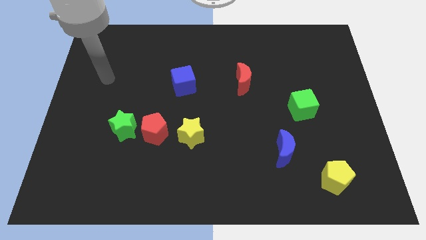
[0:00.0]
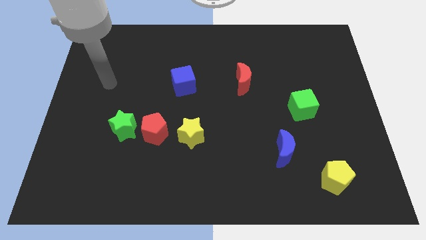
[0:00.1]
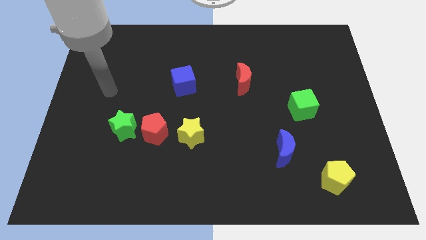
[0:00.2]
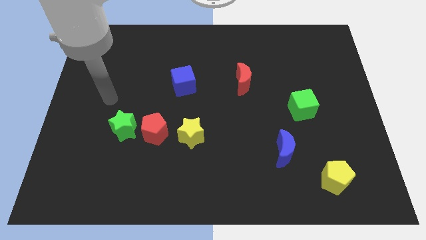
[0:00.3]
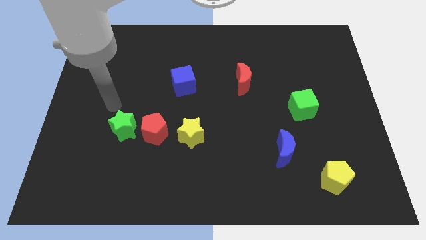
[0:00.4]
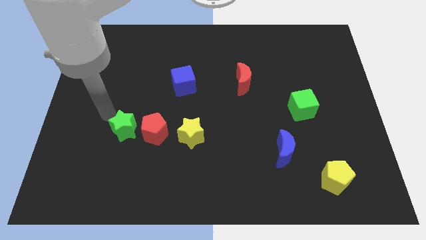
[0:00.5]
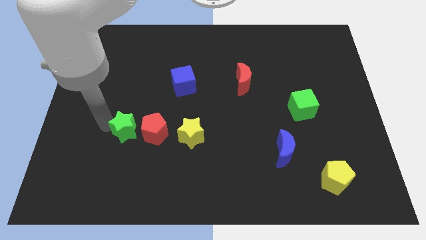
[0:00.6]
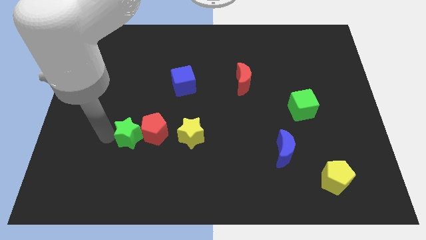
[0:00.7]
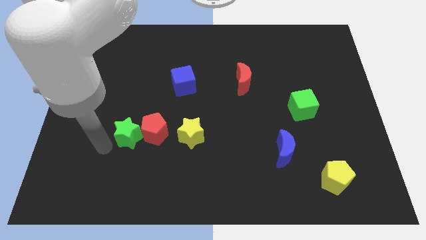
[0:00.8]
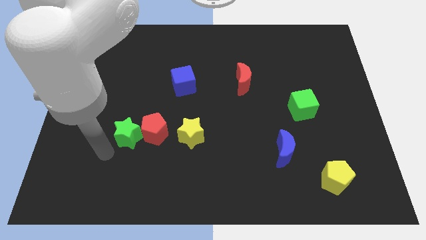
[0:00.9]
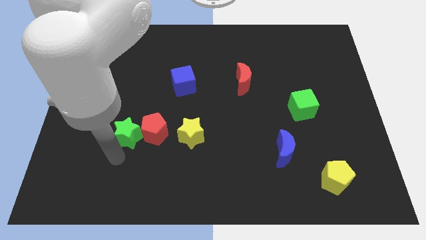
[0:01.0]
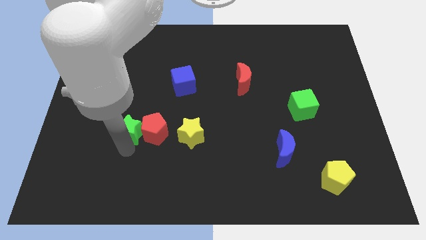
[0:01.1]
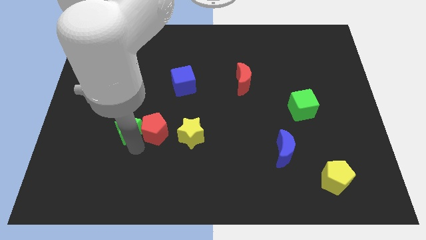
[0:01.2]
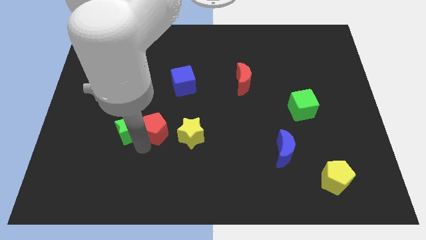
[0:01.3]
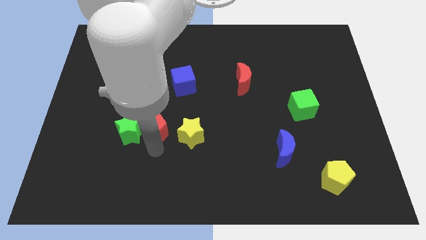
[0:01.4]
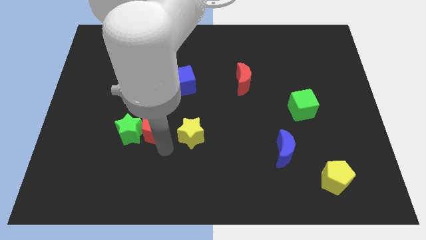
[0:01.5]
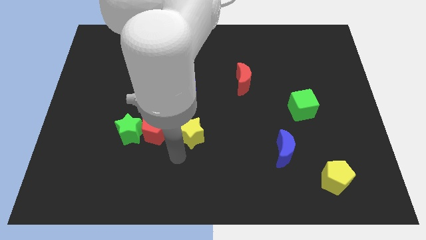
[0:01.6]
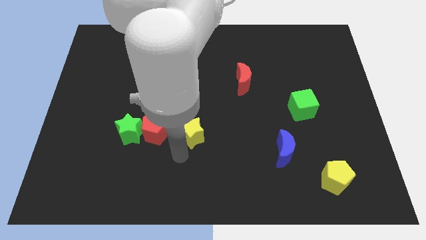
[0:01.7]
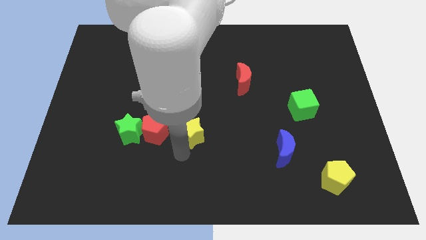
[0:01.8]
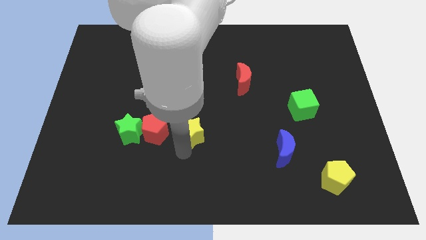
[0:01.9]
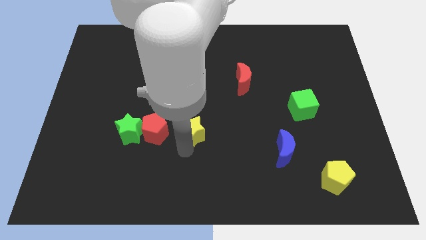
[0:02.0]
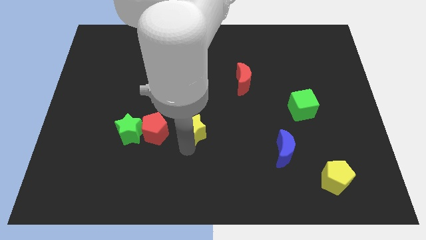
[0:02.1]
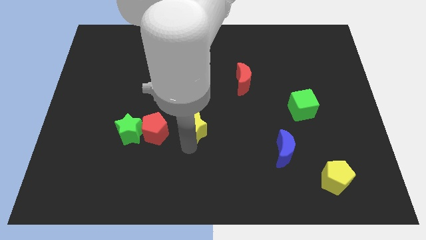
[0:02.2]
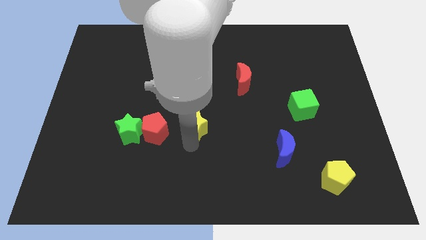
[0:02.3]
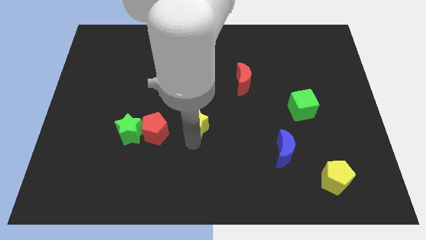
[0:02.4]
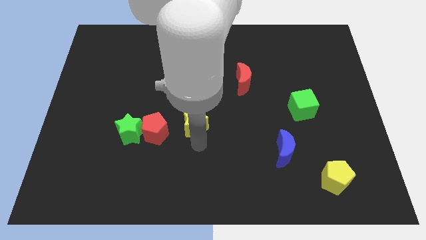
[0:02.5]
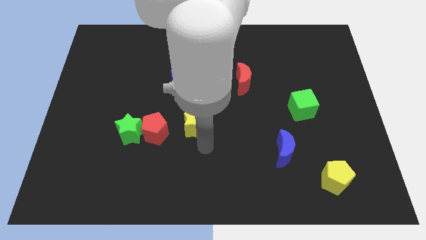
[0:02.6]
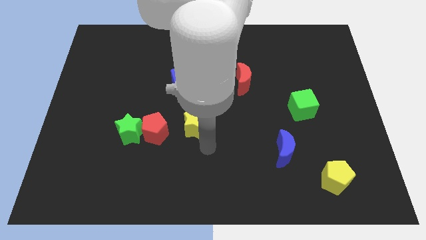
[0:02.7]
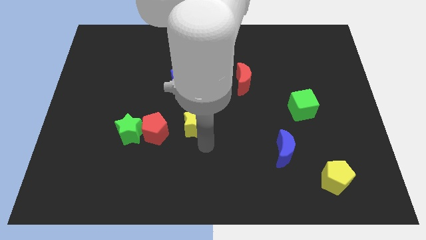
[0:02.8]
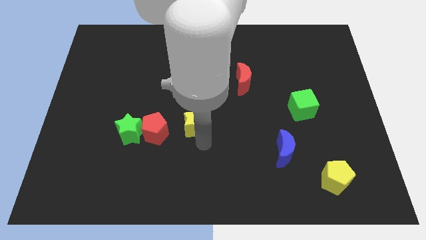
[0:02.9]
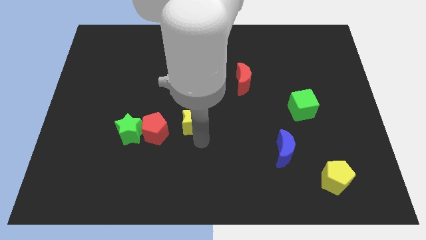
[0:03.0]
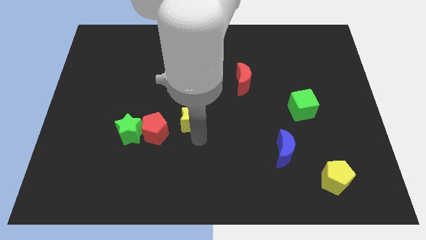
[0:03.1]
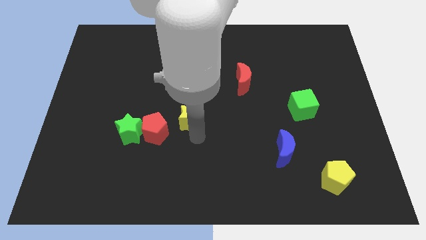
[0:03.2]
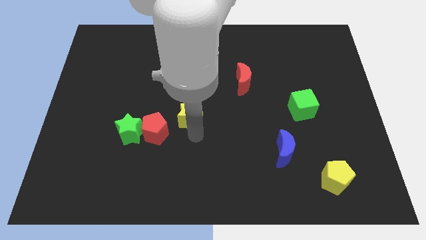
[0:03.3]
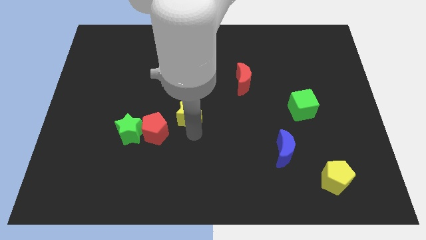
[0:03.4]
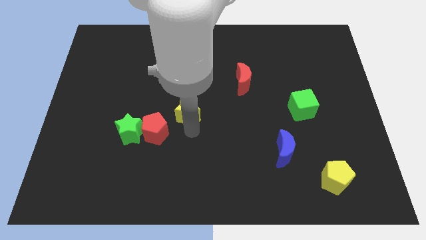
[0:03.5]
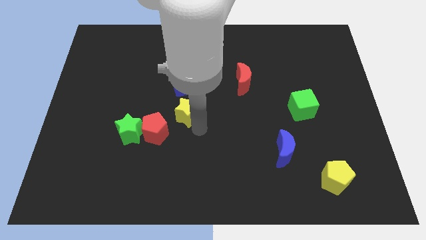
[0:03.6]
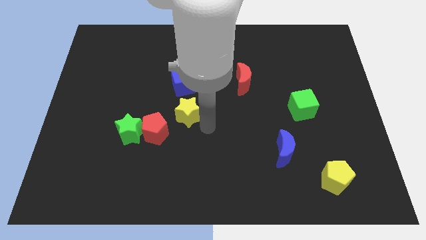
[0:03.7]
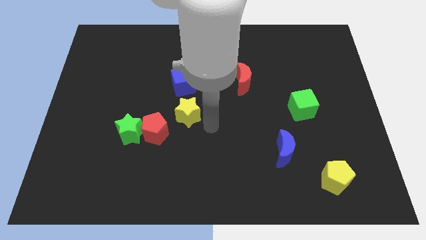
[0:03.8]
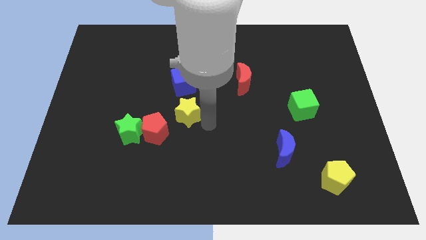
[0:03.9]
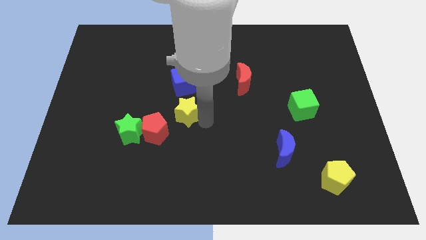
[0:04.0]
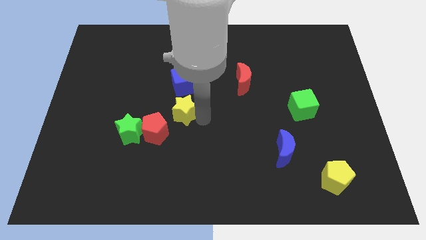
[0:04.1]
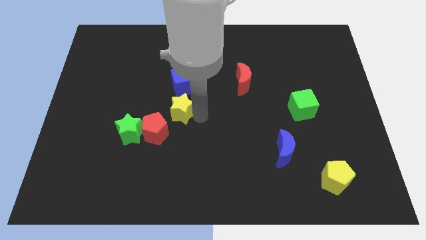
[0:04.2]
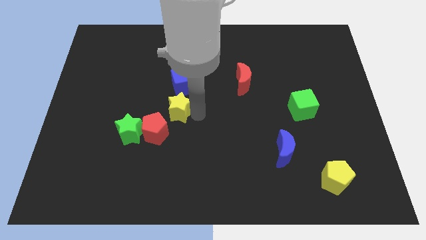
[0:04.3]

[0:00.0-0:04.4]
slide the yellow star up and left somewhat

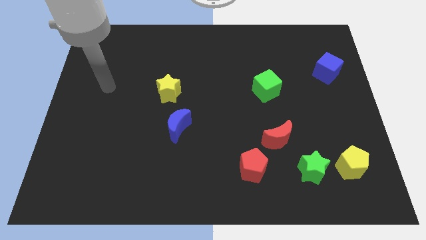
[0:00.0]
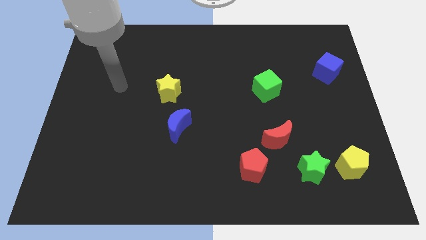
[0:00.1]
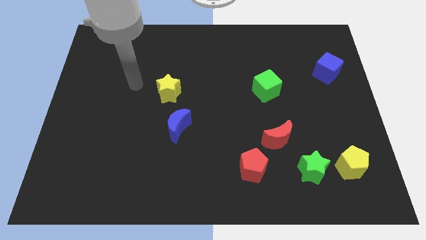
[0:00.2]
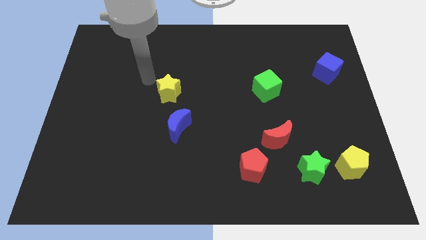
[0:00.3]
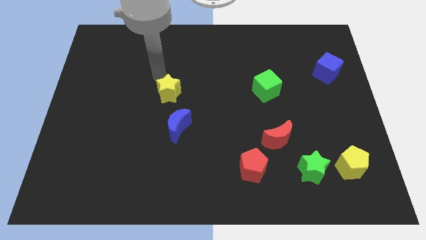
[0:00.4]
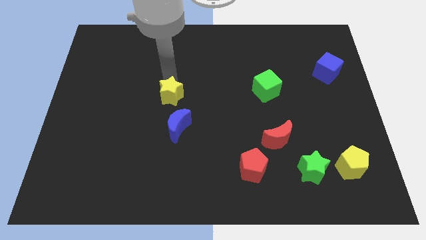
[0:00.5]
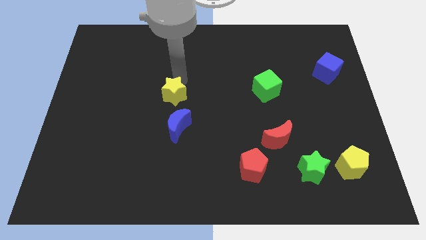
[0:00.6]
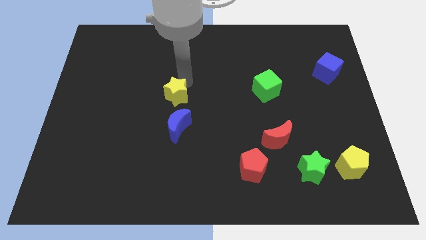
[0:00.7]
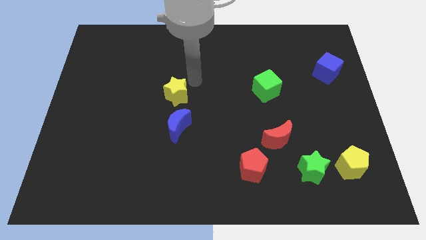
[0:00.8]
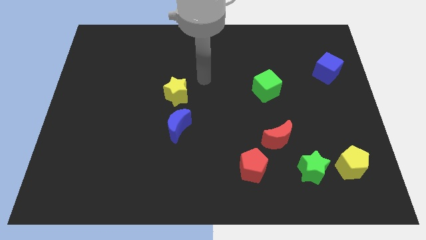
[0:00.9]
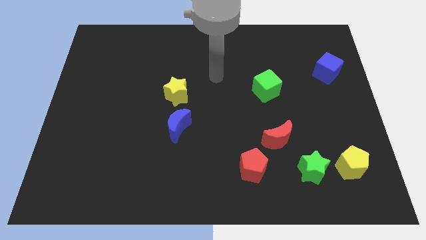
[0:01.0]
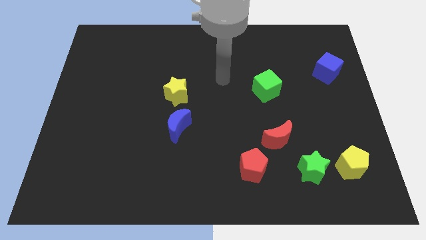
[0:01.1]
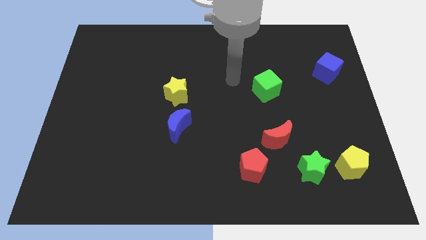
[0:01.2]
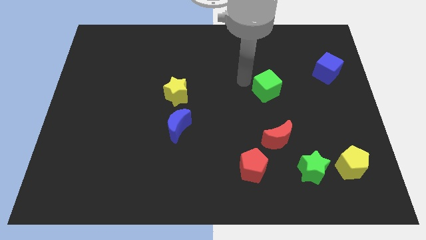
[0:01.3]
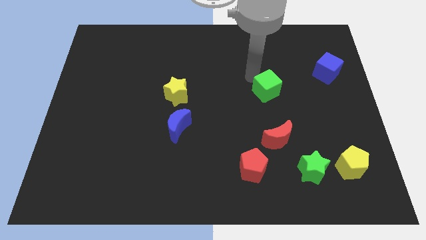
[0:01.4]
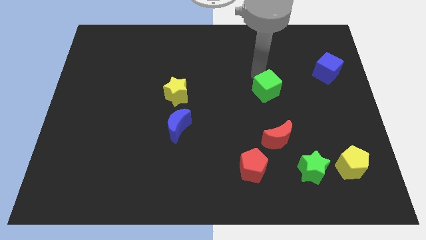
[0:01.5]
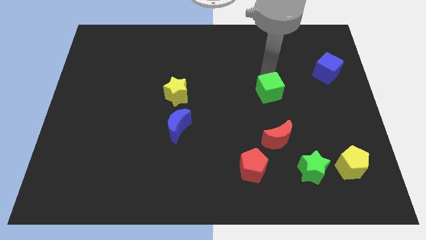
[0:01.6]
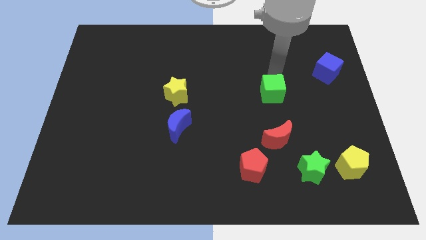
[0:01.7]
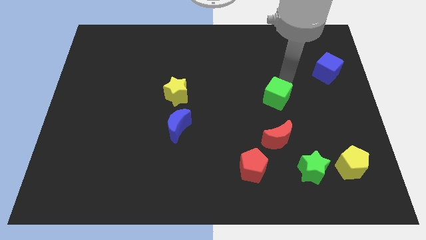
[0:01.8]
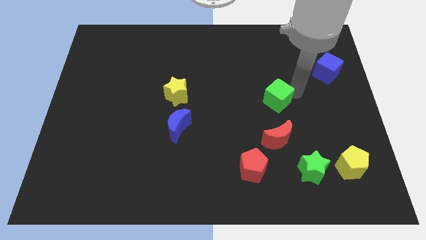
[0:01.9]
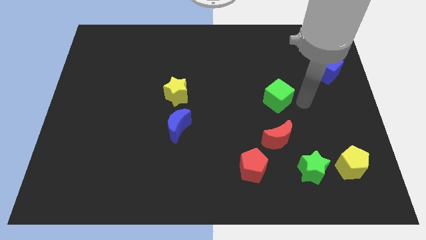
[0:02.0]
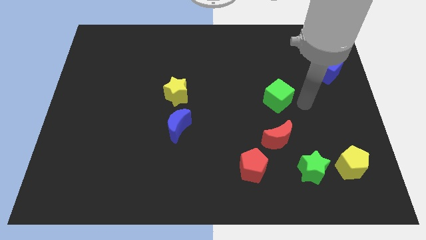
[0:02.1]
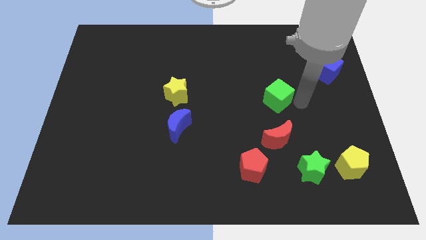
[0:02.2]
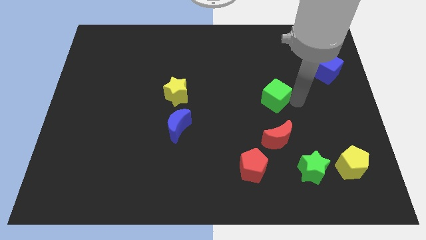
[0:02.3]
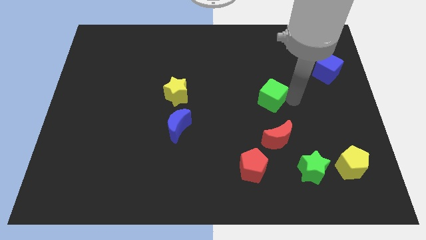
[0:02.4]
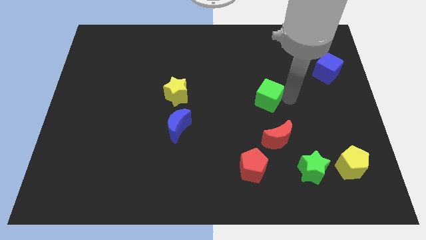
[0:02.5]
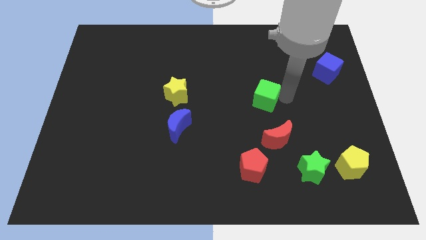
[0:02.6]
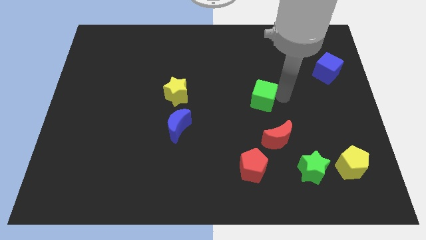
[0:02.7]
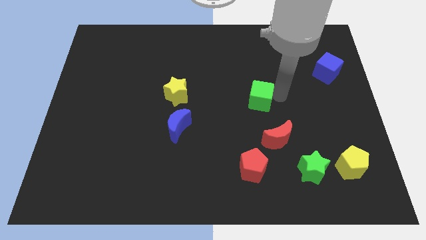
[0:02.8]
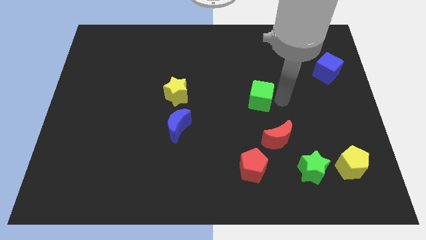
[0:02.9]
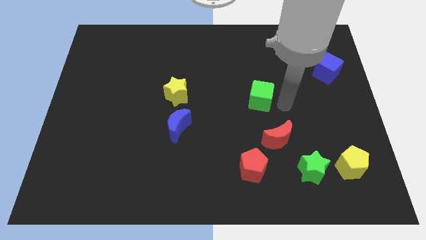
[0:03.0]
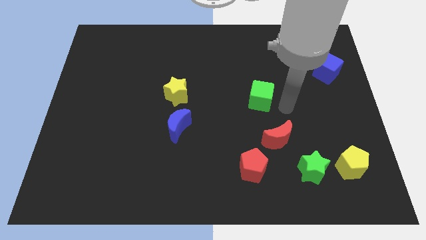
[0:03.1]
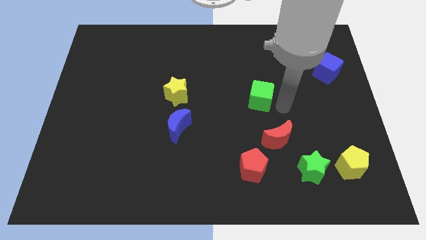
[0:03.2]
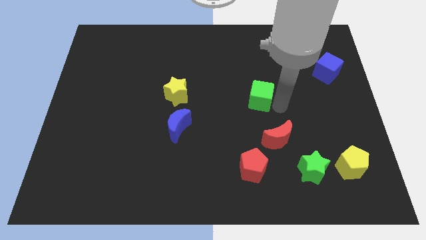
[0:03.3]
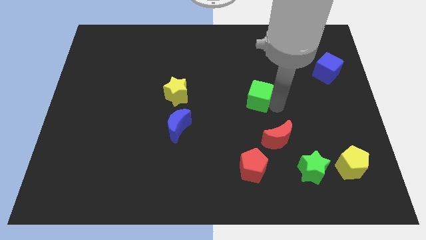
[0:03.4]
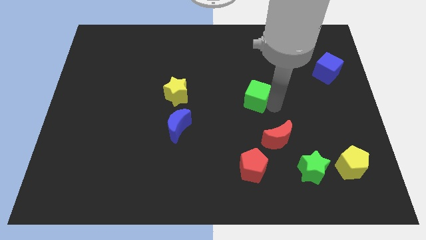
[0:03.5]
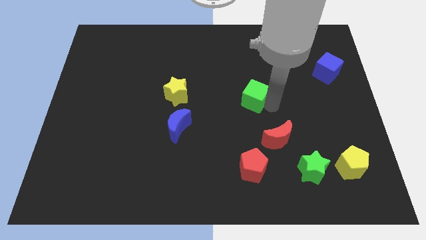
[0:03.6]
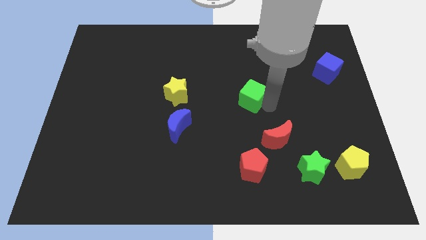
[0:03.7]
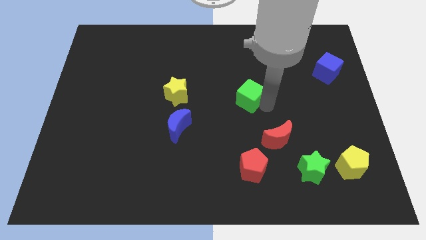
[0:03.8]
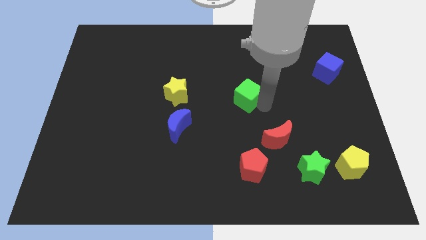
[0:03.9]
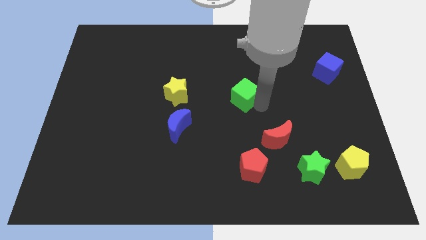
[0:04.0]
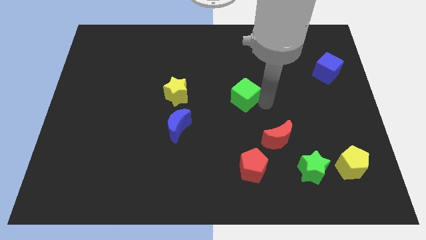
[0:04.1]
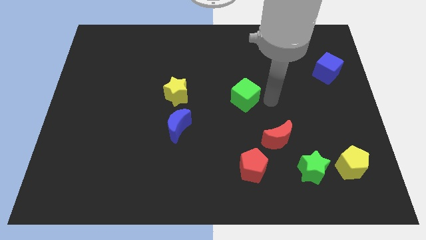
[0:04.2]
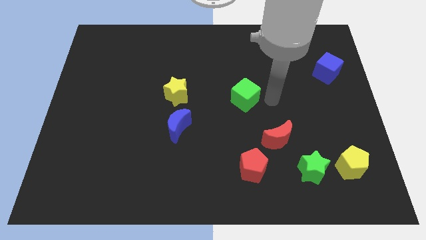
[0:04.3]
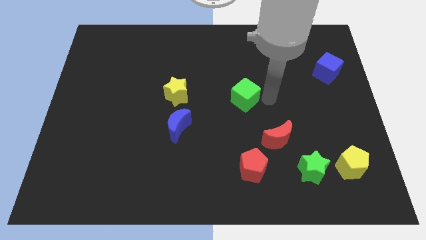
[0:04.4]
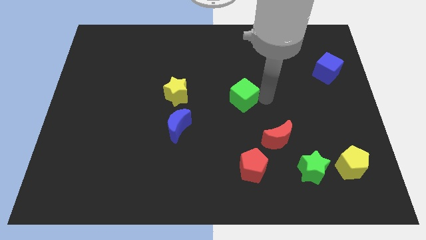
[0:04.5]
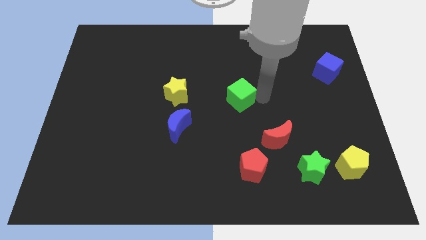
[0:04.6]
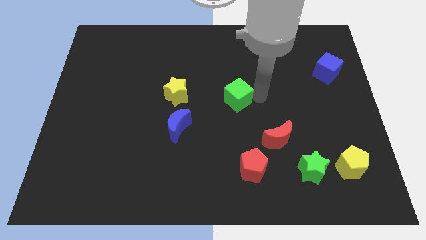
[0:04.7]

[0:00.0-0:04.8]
slightly push the green cube to the left
